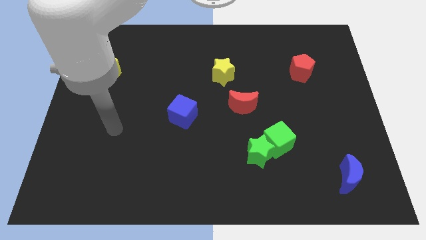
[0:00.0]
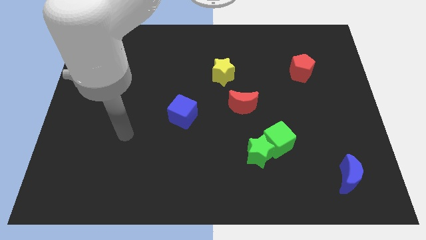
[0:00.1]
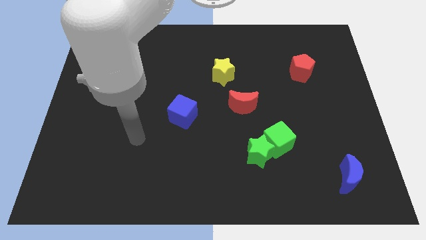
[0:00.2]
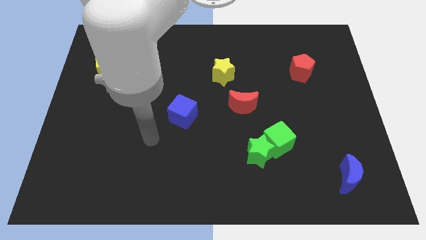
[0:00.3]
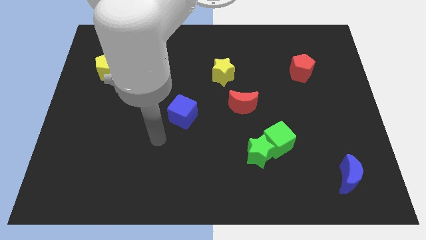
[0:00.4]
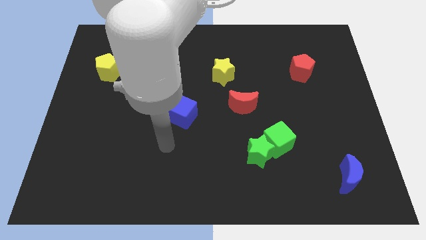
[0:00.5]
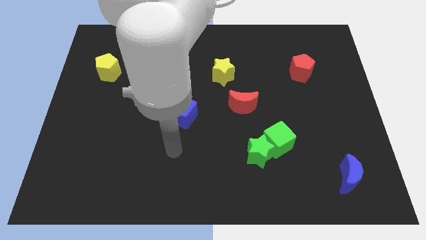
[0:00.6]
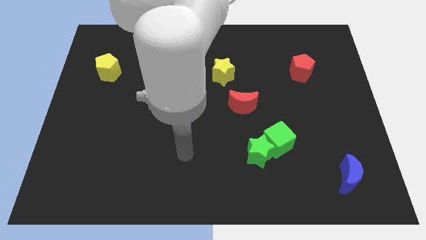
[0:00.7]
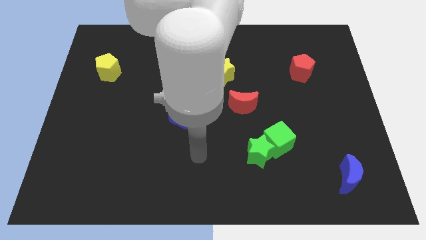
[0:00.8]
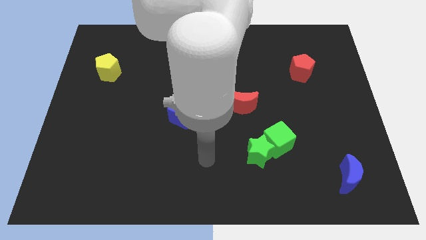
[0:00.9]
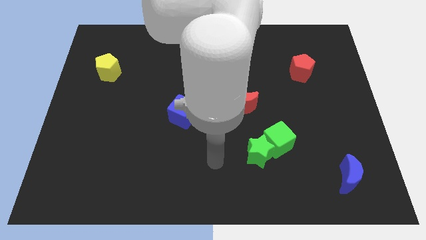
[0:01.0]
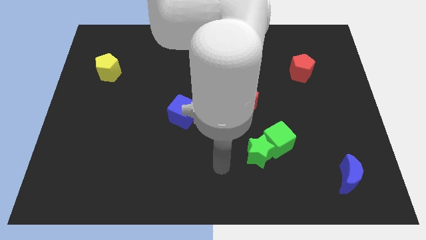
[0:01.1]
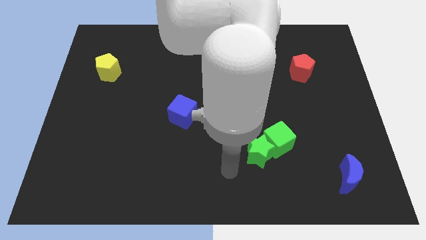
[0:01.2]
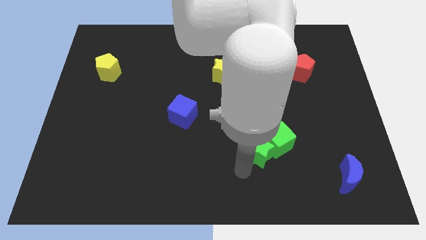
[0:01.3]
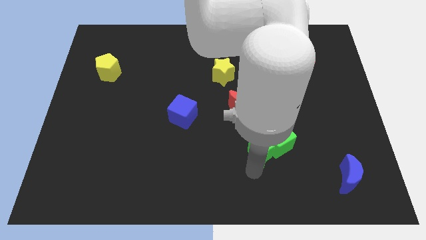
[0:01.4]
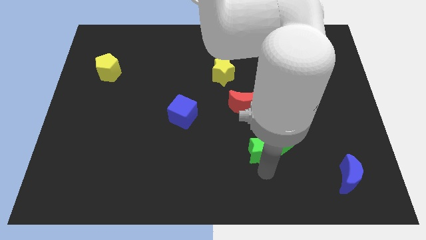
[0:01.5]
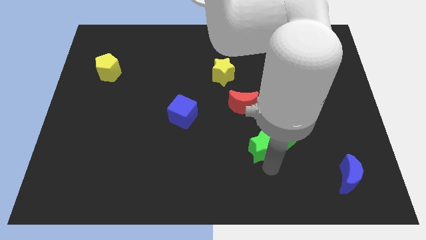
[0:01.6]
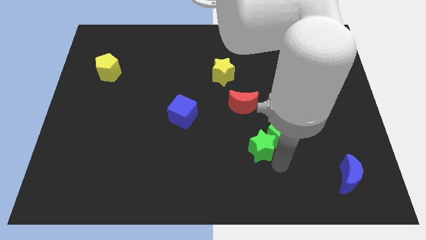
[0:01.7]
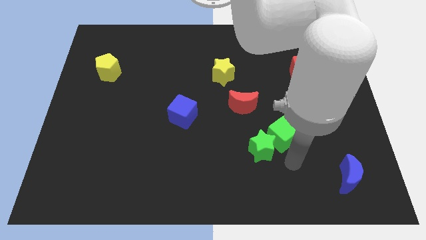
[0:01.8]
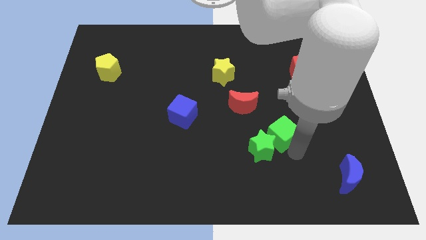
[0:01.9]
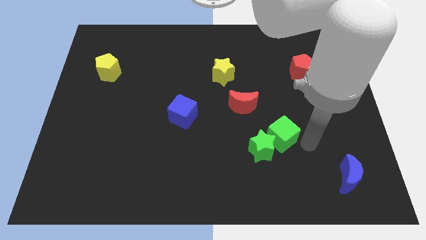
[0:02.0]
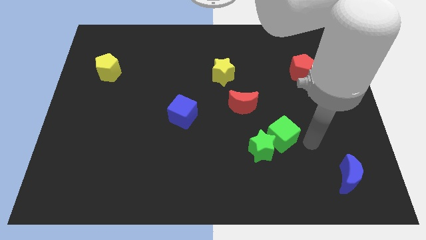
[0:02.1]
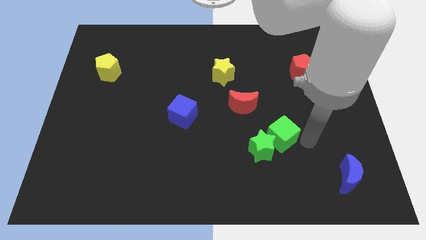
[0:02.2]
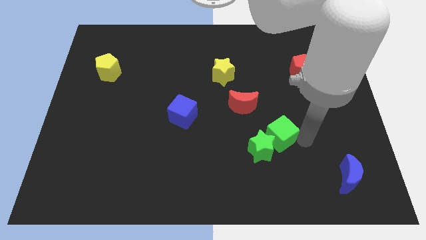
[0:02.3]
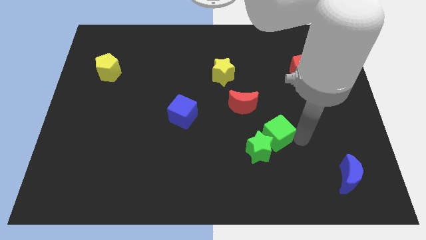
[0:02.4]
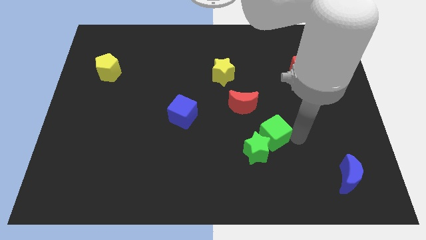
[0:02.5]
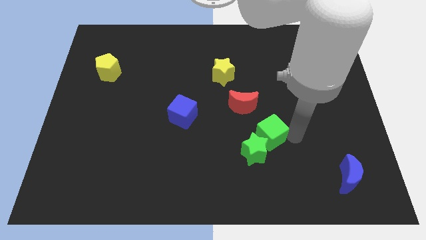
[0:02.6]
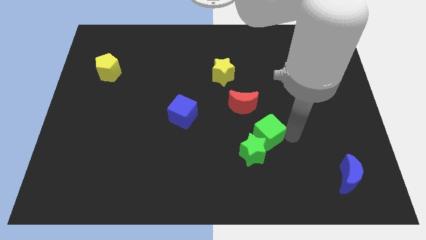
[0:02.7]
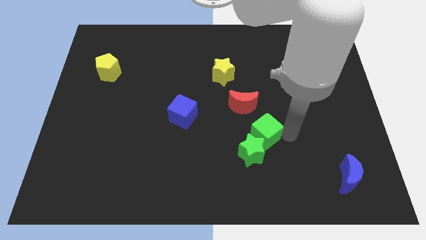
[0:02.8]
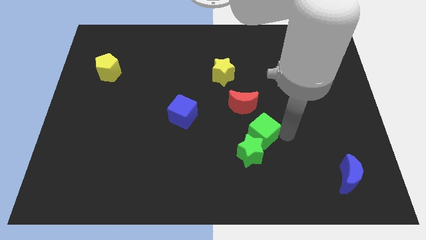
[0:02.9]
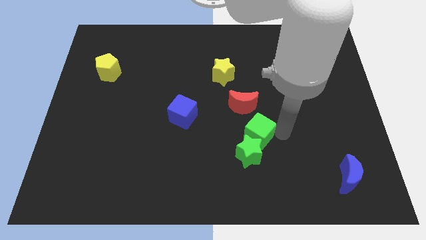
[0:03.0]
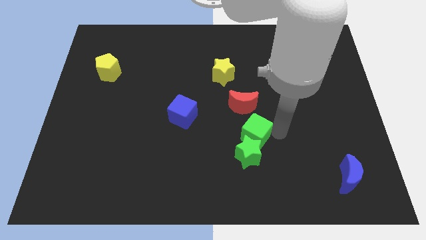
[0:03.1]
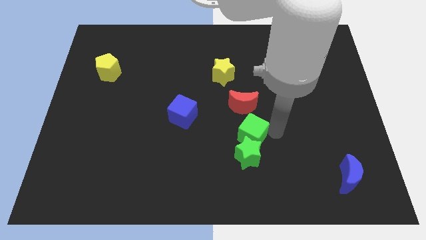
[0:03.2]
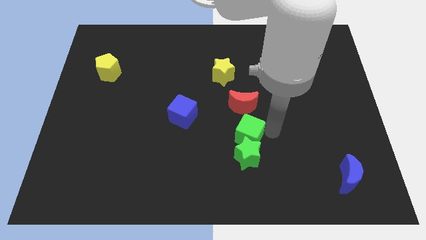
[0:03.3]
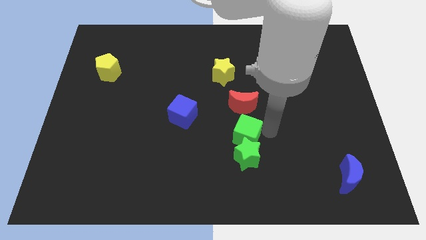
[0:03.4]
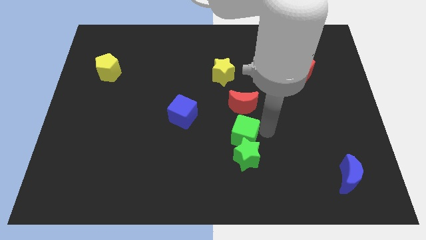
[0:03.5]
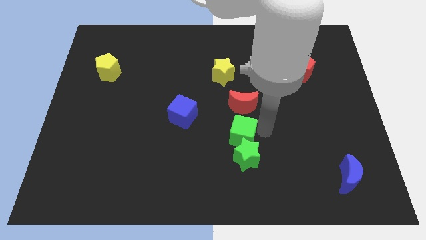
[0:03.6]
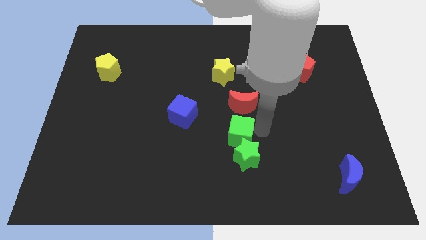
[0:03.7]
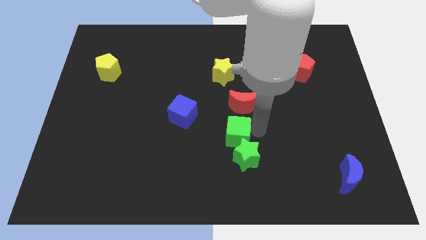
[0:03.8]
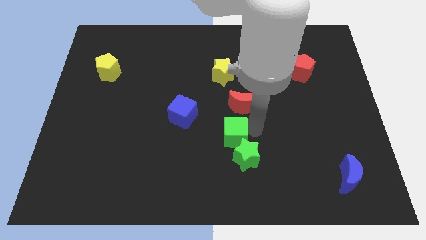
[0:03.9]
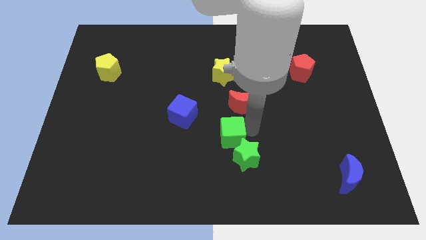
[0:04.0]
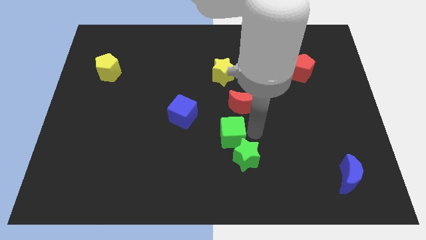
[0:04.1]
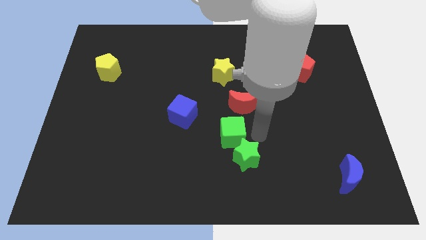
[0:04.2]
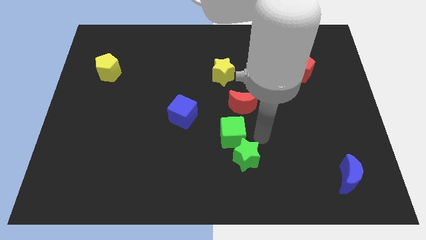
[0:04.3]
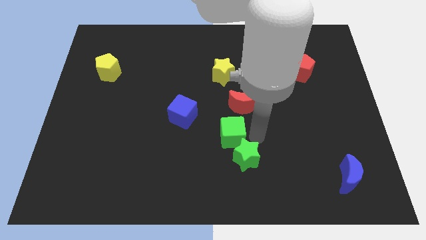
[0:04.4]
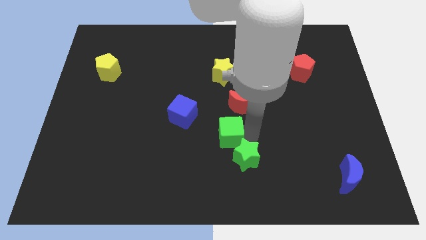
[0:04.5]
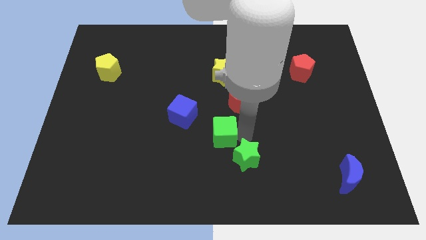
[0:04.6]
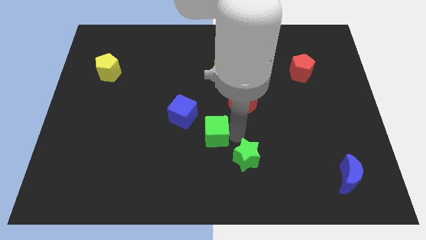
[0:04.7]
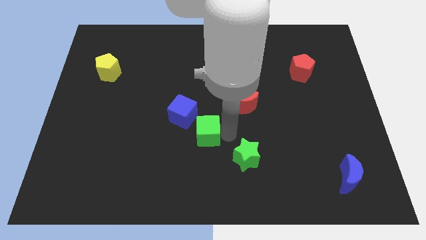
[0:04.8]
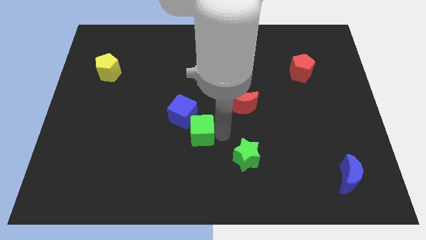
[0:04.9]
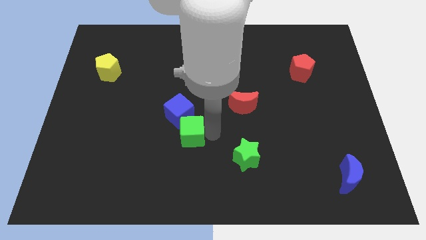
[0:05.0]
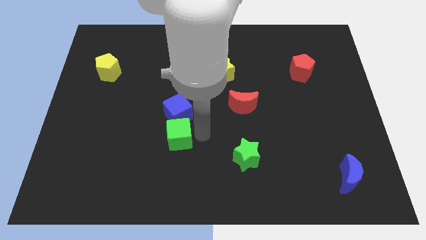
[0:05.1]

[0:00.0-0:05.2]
move the green cube to the bottom left side of the blue cube

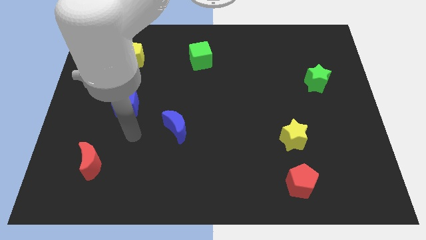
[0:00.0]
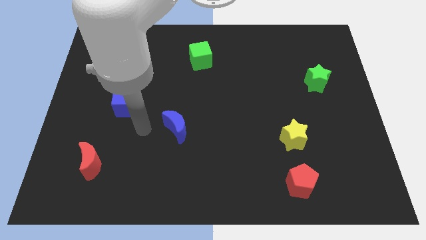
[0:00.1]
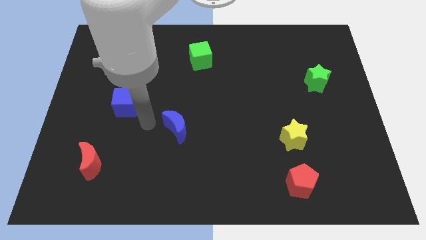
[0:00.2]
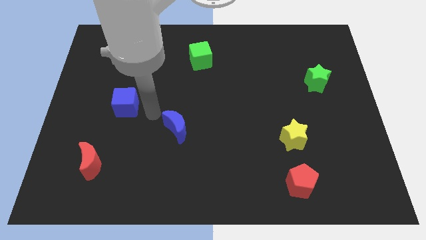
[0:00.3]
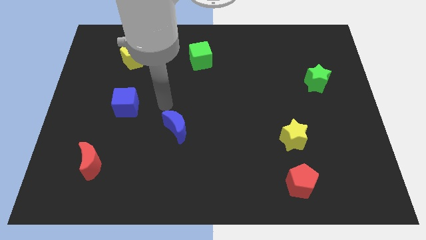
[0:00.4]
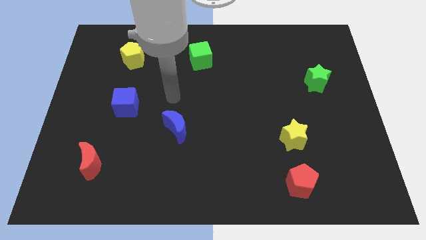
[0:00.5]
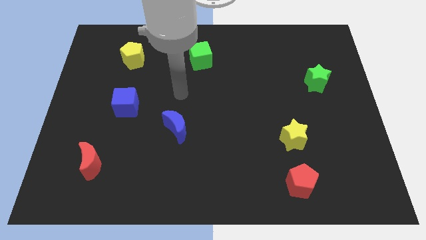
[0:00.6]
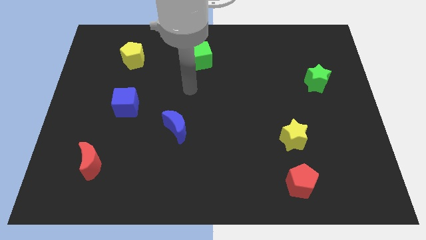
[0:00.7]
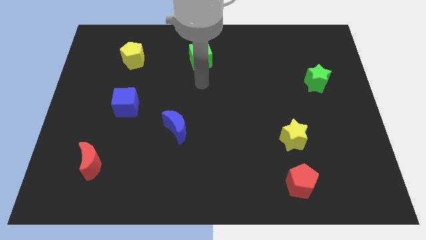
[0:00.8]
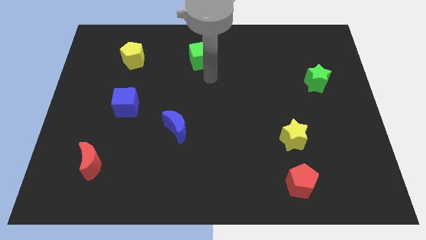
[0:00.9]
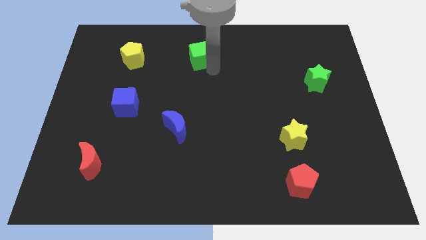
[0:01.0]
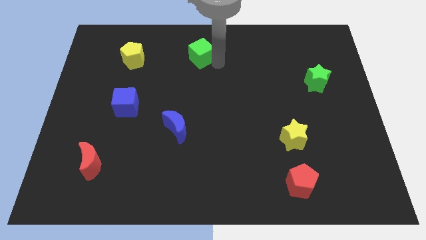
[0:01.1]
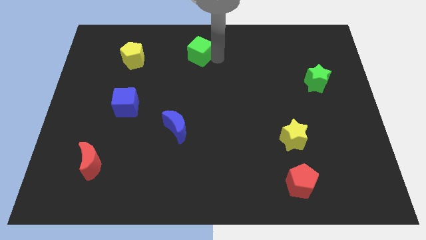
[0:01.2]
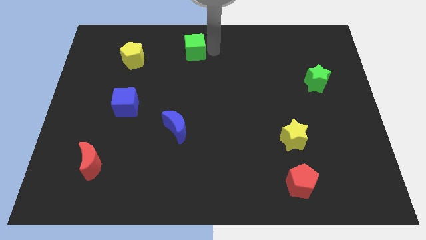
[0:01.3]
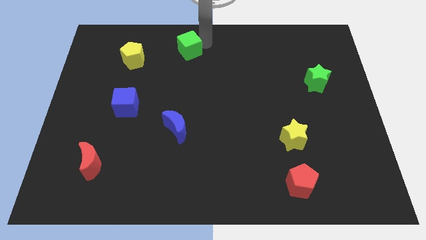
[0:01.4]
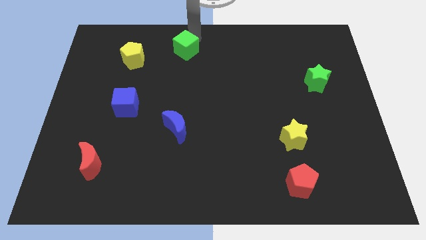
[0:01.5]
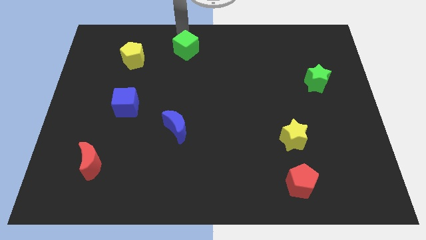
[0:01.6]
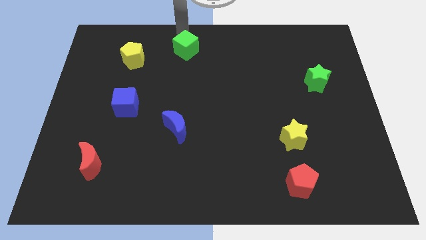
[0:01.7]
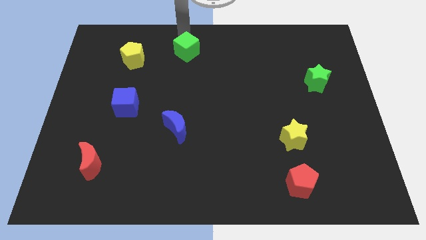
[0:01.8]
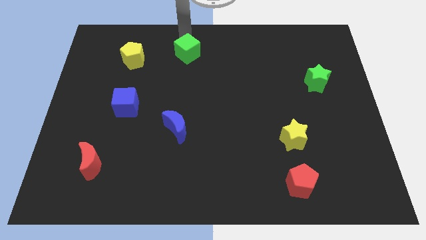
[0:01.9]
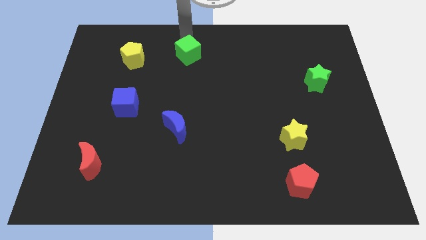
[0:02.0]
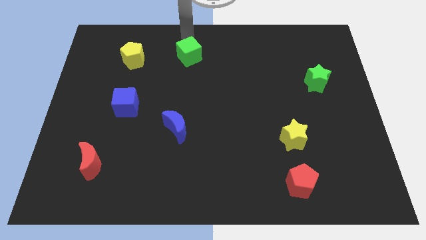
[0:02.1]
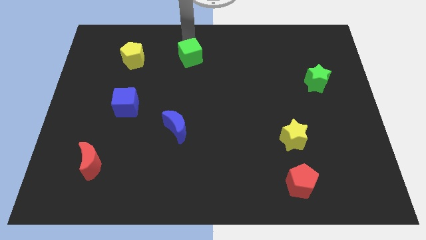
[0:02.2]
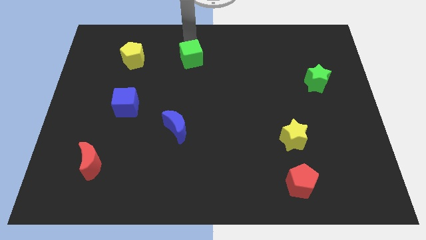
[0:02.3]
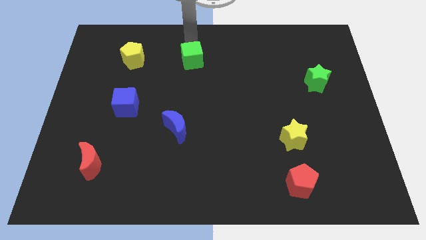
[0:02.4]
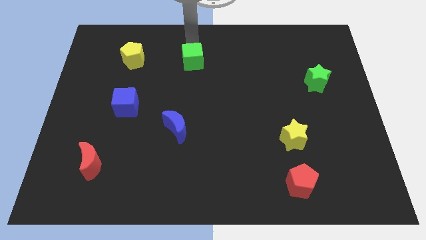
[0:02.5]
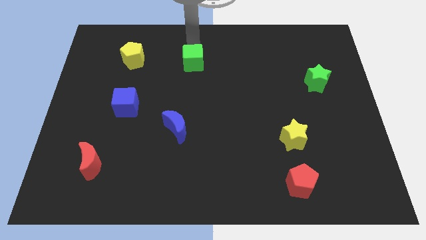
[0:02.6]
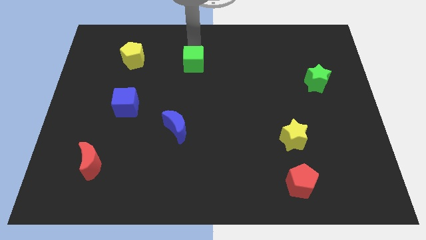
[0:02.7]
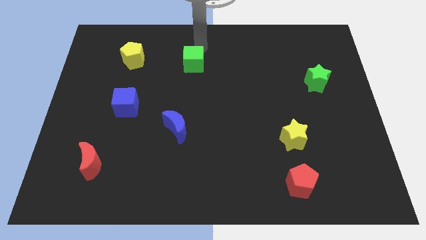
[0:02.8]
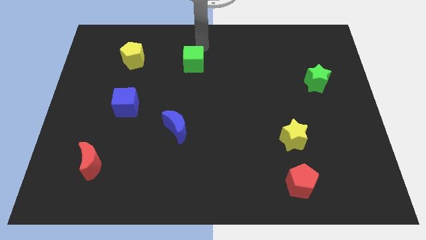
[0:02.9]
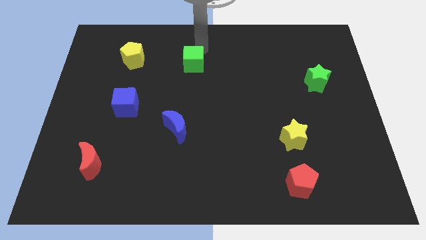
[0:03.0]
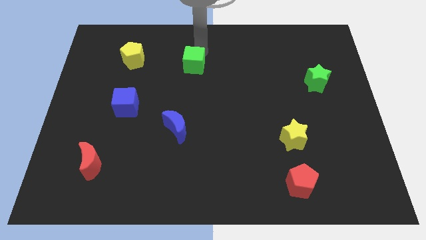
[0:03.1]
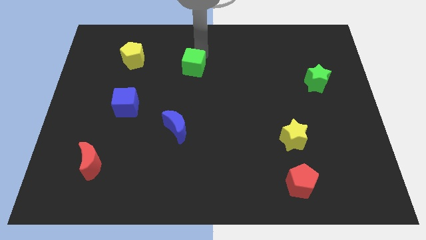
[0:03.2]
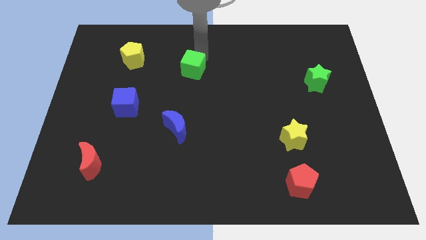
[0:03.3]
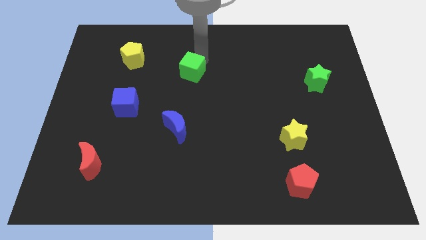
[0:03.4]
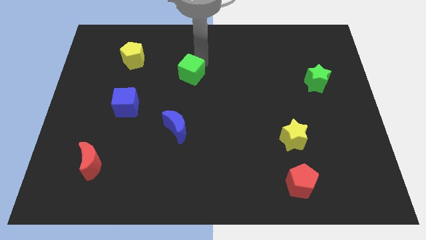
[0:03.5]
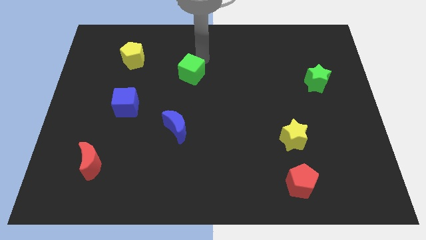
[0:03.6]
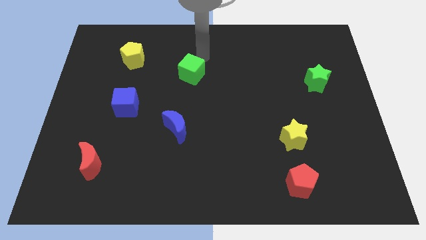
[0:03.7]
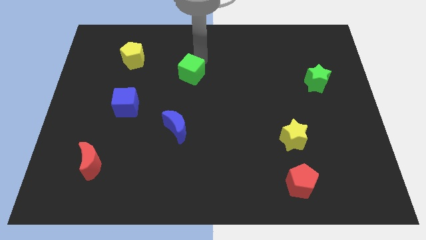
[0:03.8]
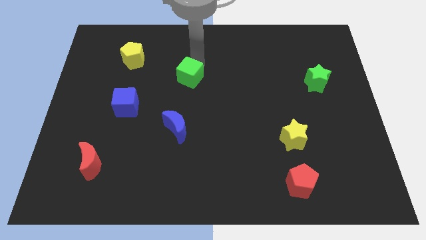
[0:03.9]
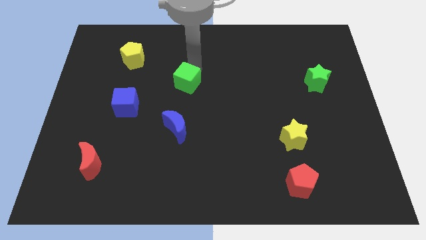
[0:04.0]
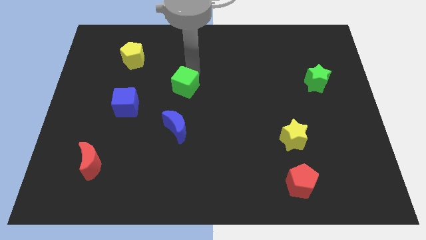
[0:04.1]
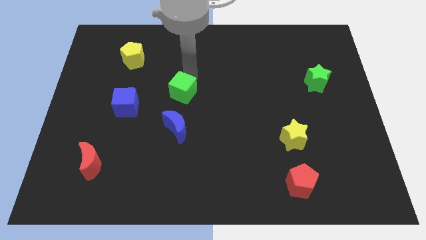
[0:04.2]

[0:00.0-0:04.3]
push the green cube to the right side of the blue cube
